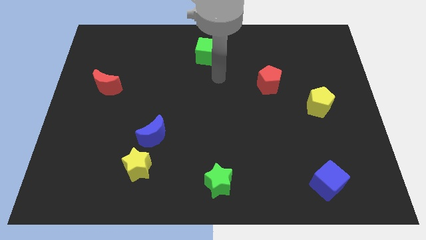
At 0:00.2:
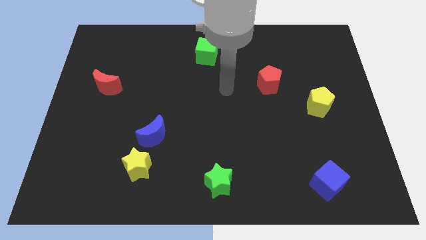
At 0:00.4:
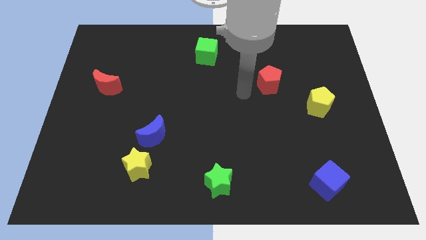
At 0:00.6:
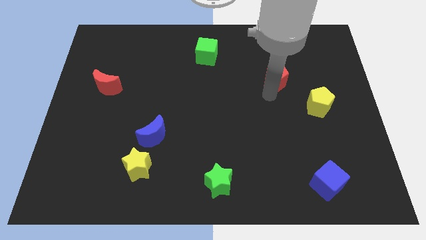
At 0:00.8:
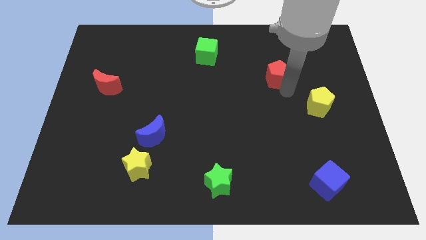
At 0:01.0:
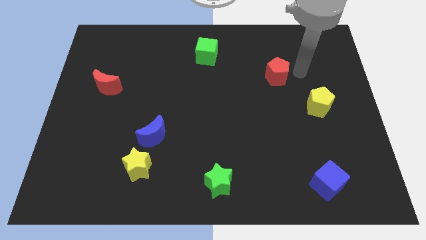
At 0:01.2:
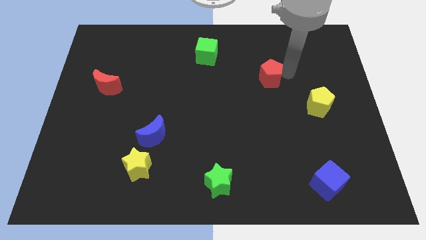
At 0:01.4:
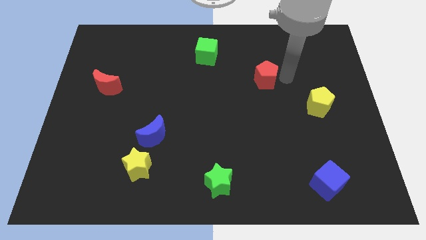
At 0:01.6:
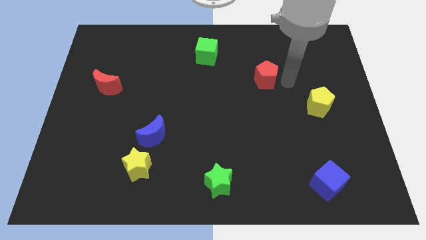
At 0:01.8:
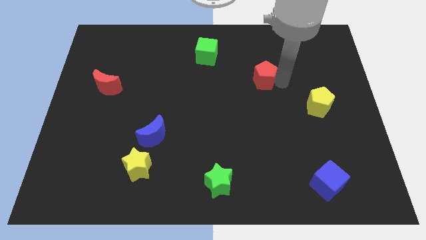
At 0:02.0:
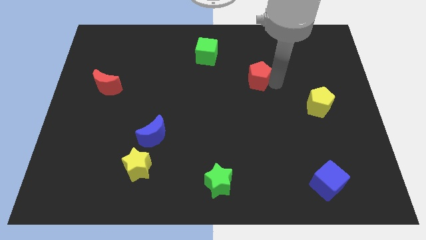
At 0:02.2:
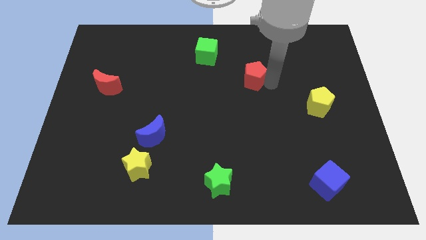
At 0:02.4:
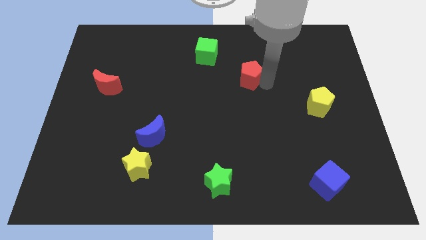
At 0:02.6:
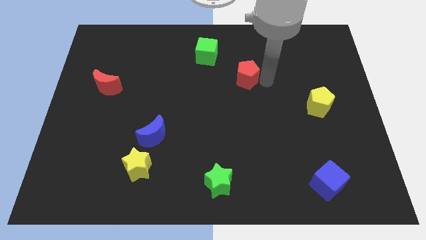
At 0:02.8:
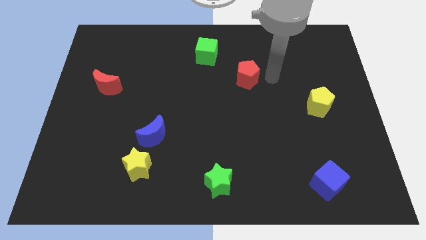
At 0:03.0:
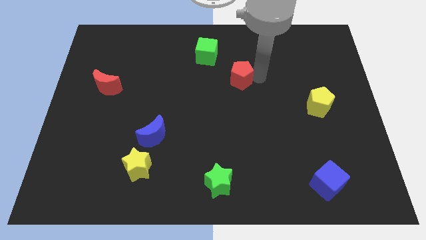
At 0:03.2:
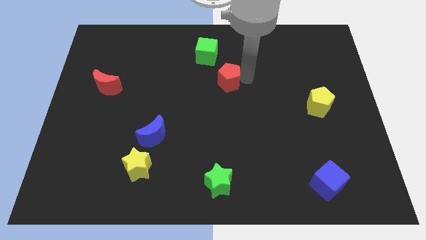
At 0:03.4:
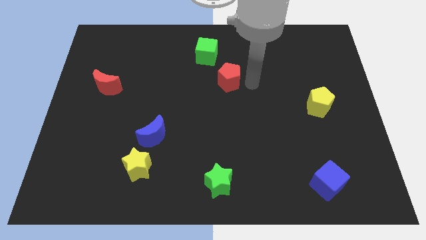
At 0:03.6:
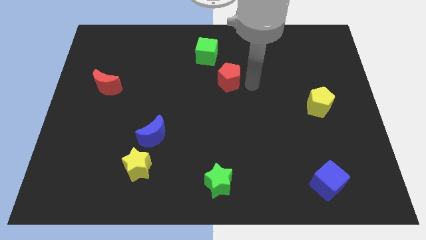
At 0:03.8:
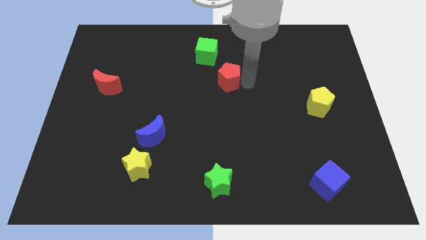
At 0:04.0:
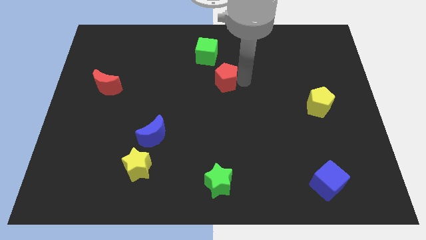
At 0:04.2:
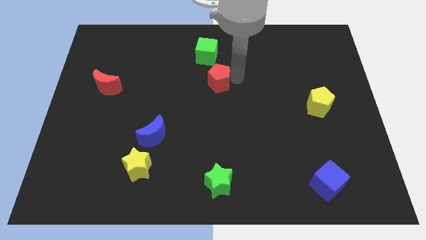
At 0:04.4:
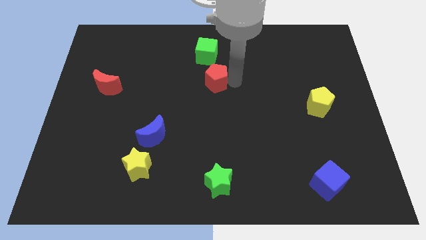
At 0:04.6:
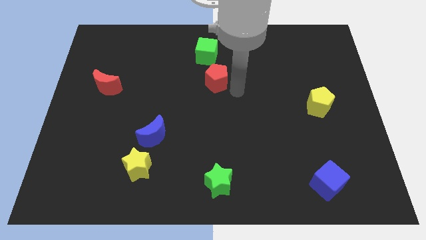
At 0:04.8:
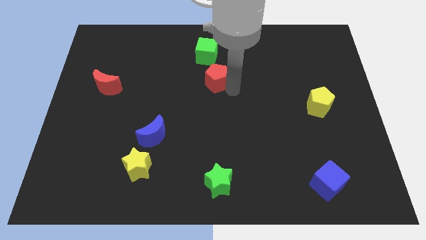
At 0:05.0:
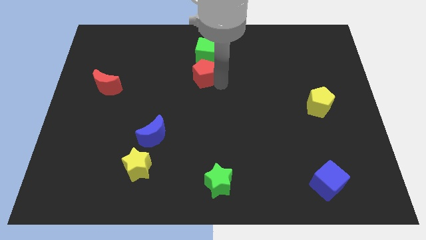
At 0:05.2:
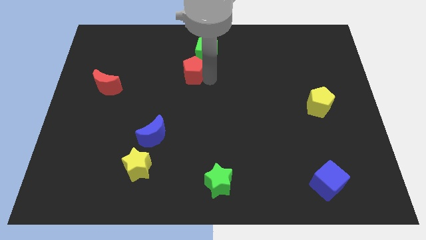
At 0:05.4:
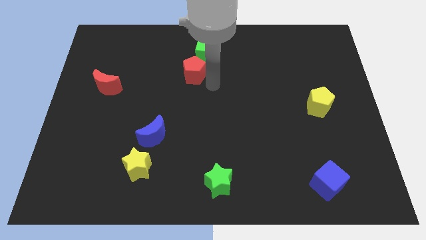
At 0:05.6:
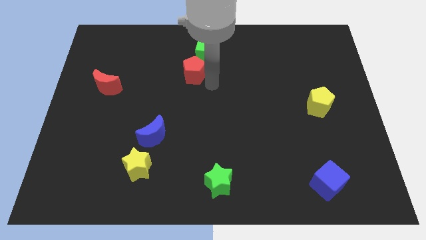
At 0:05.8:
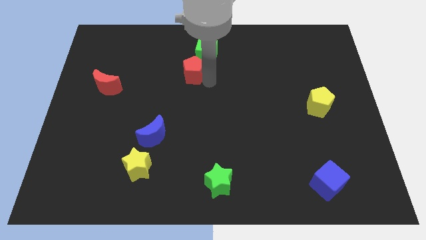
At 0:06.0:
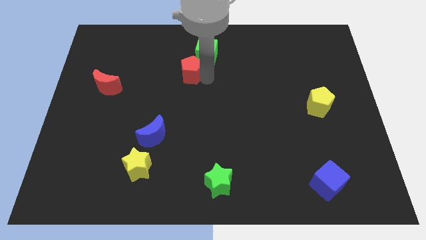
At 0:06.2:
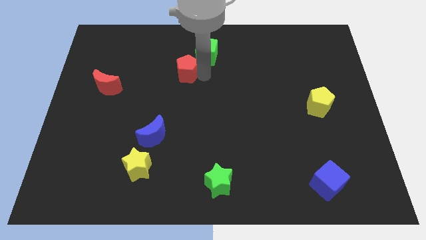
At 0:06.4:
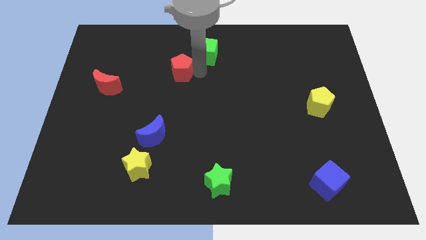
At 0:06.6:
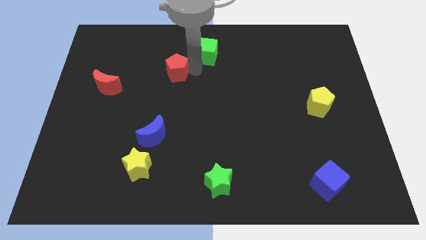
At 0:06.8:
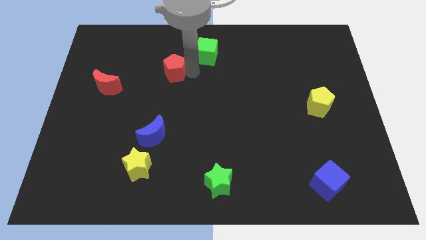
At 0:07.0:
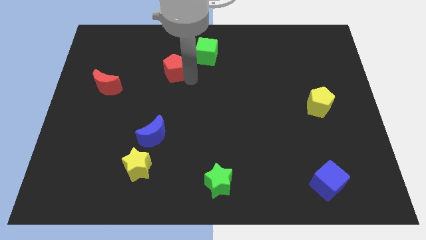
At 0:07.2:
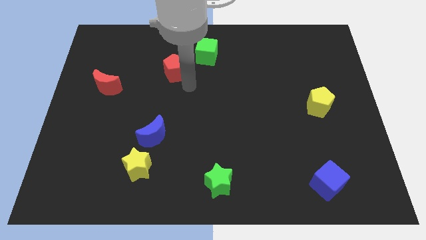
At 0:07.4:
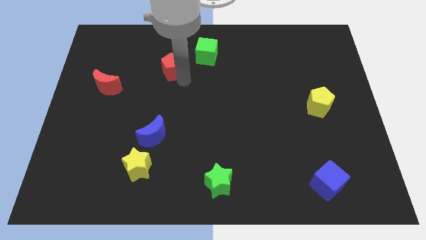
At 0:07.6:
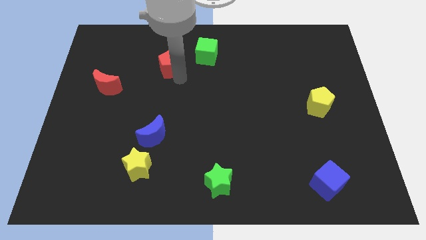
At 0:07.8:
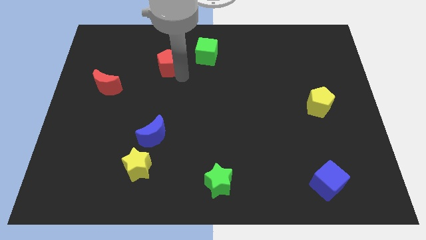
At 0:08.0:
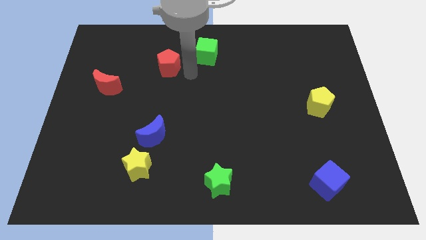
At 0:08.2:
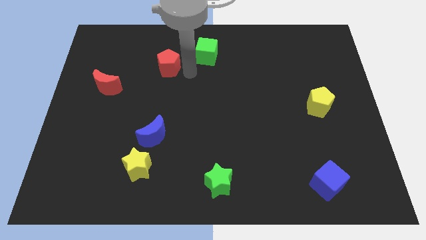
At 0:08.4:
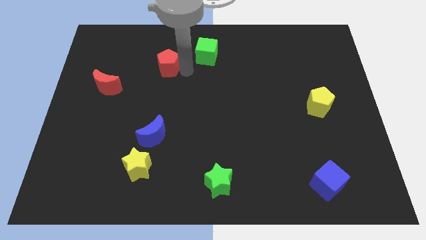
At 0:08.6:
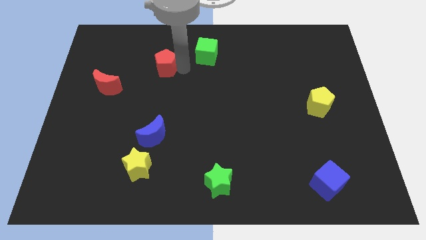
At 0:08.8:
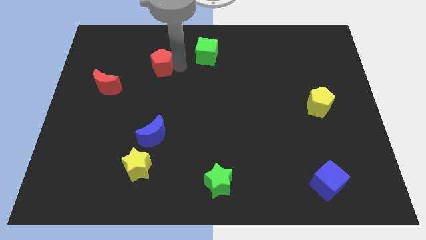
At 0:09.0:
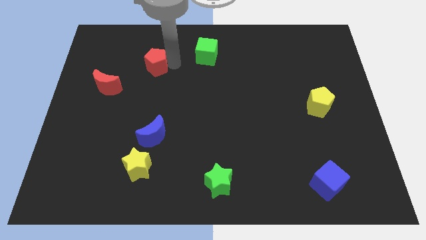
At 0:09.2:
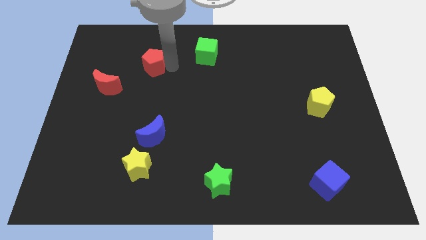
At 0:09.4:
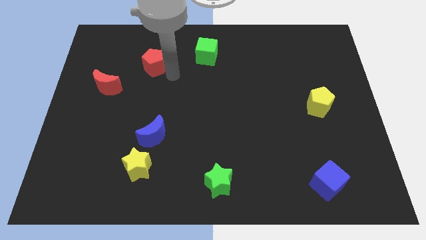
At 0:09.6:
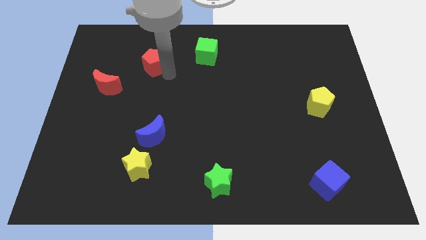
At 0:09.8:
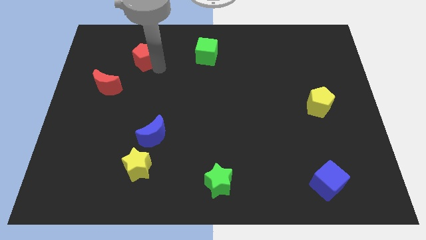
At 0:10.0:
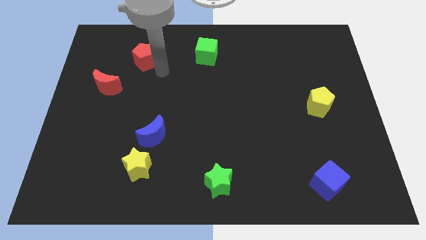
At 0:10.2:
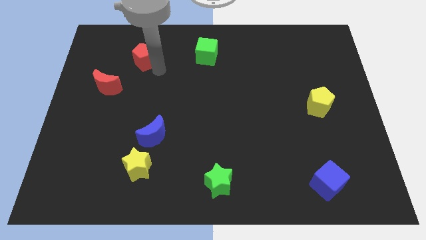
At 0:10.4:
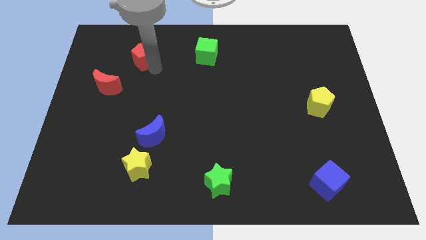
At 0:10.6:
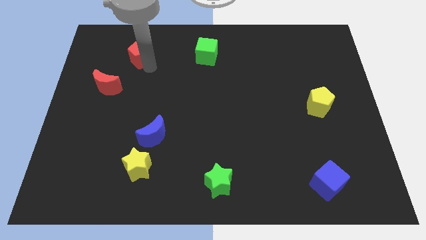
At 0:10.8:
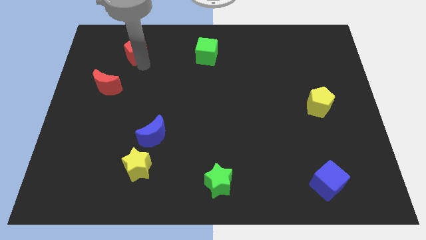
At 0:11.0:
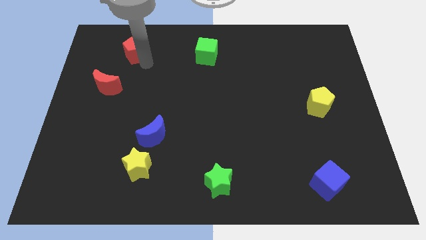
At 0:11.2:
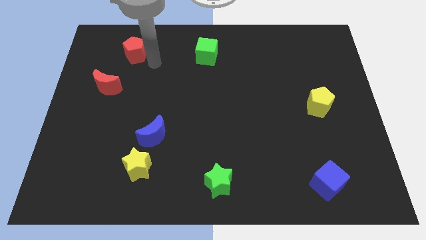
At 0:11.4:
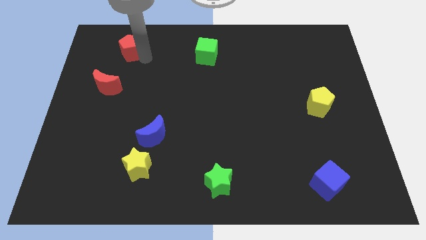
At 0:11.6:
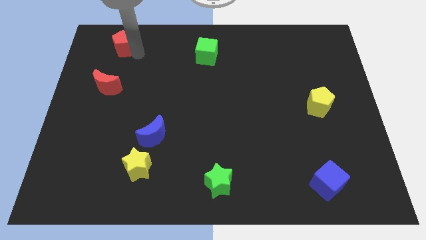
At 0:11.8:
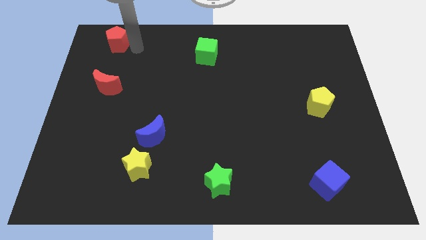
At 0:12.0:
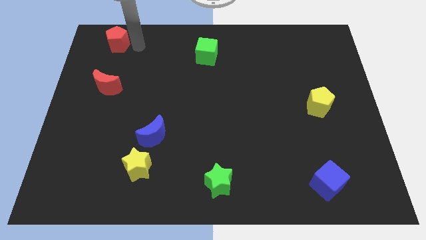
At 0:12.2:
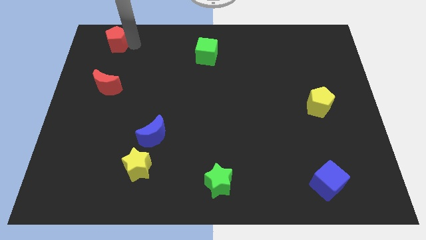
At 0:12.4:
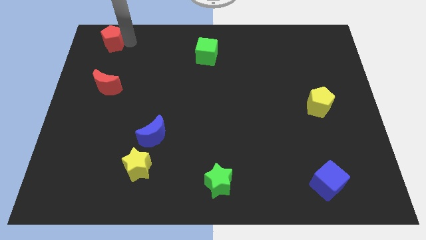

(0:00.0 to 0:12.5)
put the red pentagon to the upper left corner
